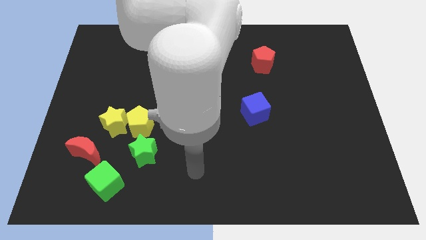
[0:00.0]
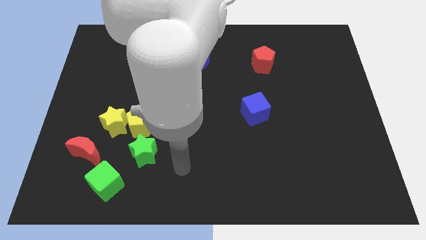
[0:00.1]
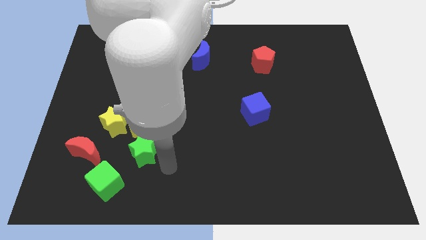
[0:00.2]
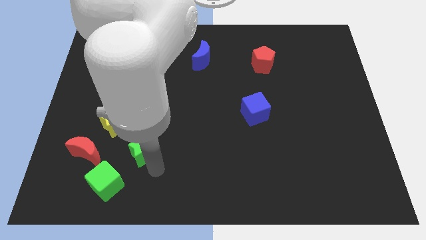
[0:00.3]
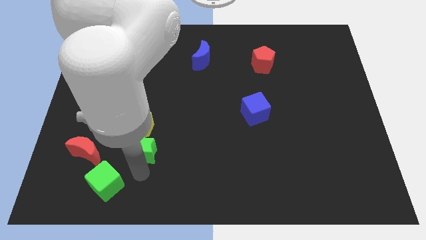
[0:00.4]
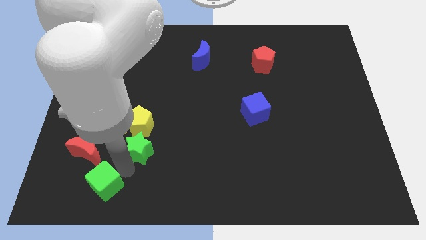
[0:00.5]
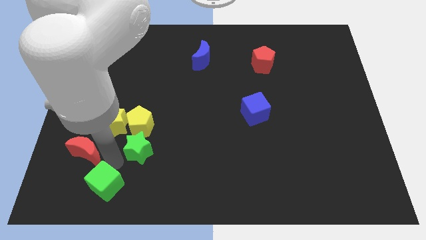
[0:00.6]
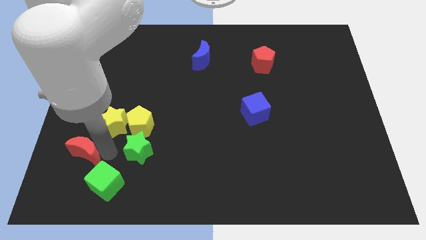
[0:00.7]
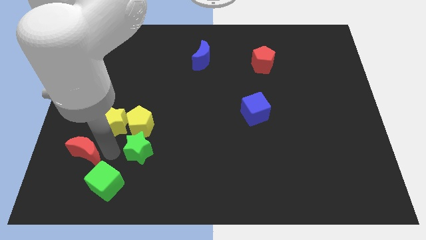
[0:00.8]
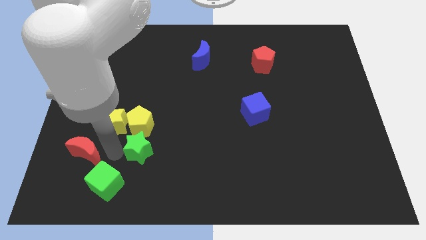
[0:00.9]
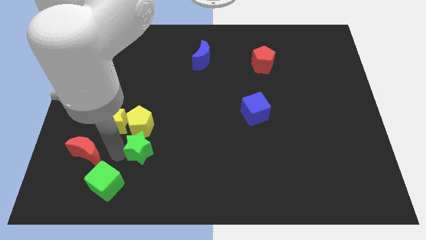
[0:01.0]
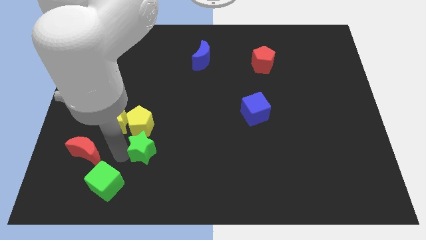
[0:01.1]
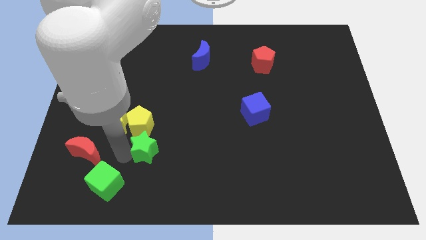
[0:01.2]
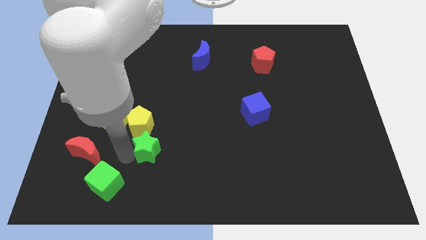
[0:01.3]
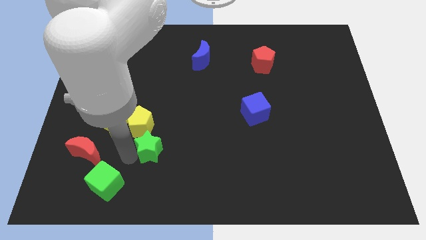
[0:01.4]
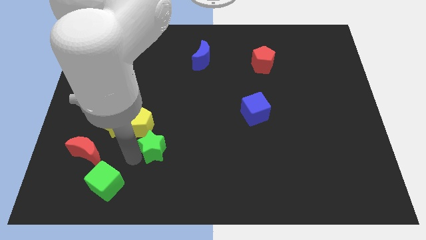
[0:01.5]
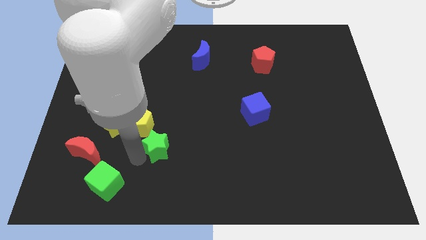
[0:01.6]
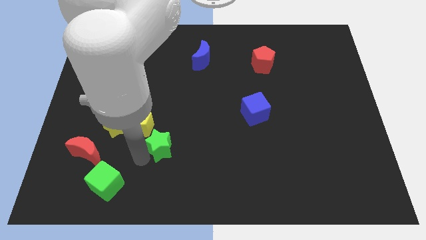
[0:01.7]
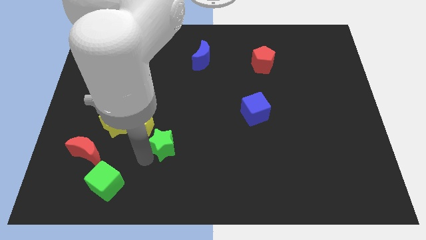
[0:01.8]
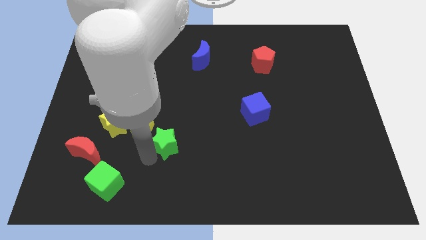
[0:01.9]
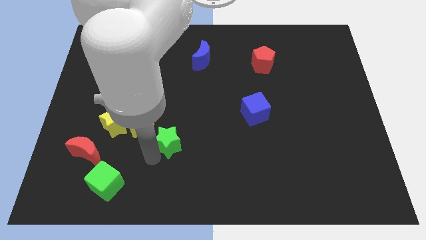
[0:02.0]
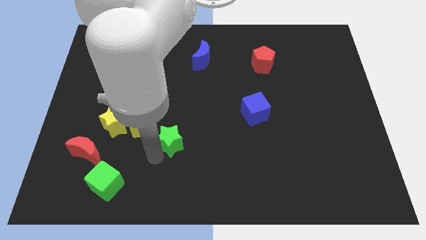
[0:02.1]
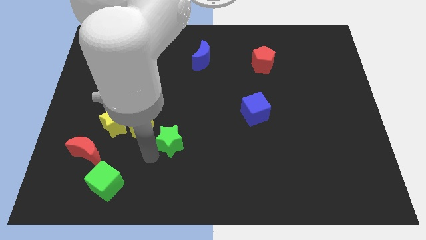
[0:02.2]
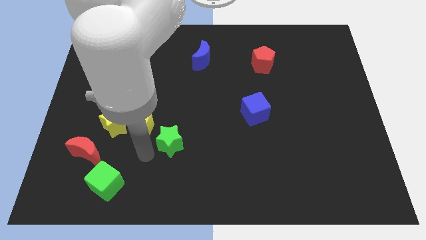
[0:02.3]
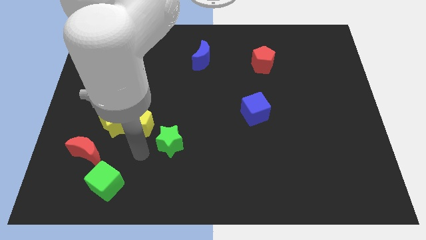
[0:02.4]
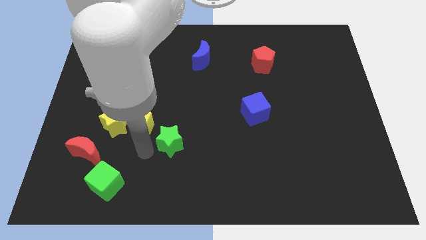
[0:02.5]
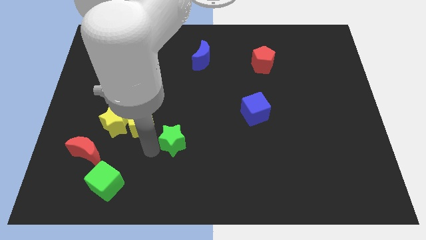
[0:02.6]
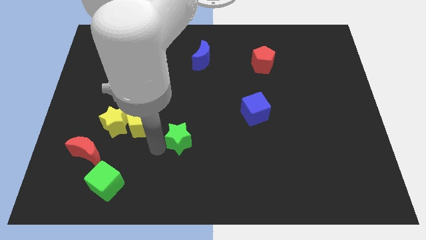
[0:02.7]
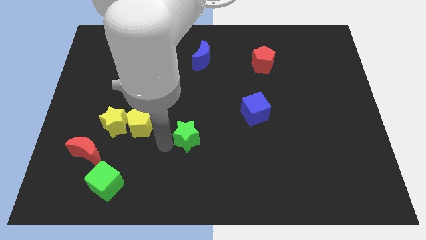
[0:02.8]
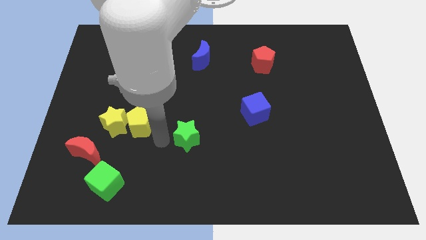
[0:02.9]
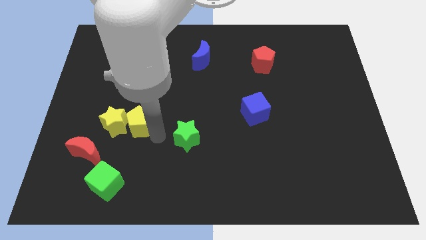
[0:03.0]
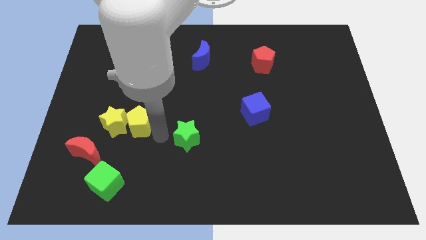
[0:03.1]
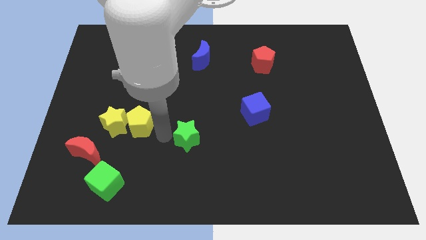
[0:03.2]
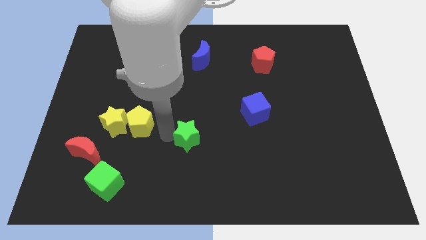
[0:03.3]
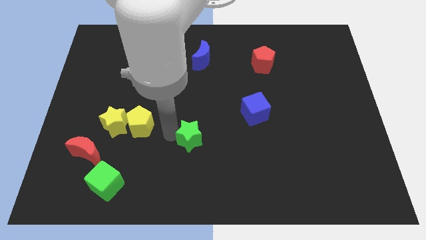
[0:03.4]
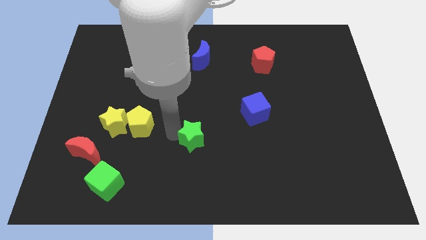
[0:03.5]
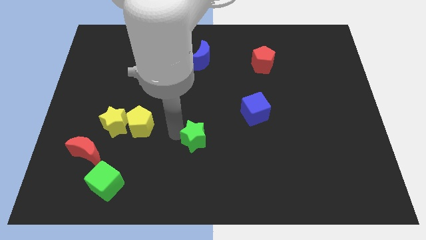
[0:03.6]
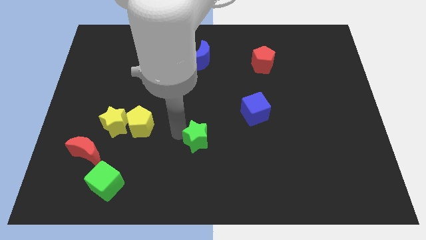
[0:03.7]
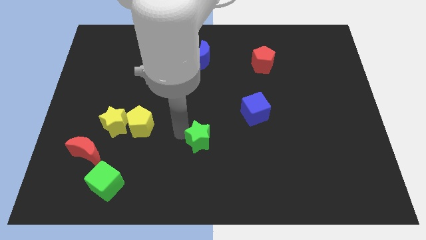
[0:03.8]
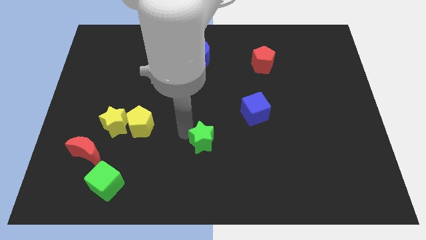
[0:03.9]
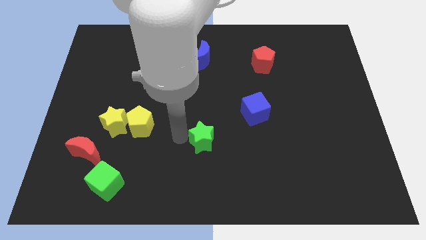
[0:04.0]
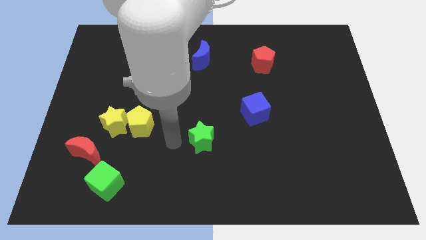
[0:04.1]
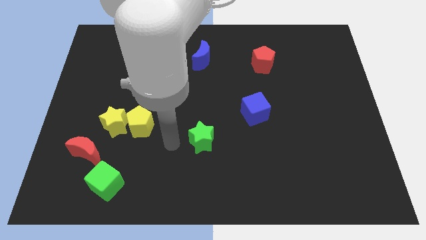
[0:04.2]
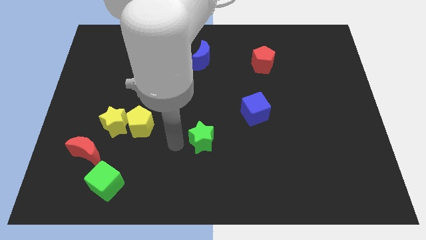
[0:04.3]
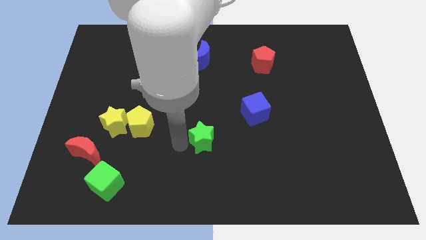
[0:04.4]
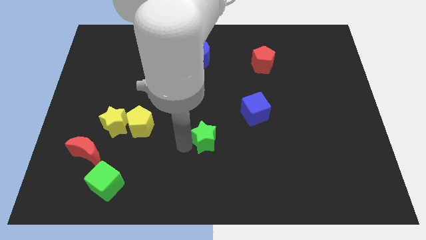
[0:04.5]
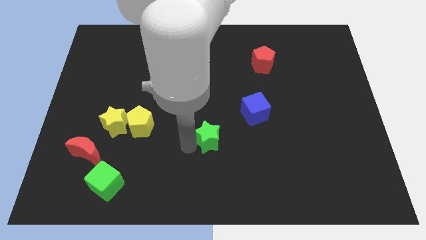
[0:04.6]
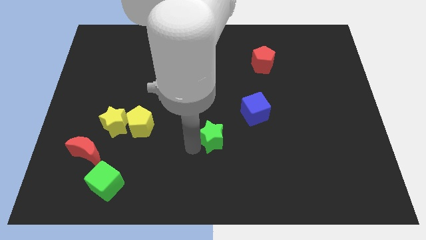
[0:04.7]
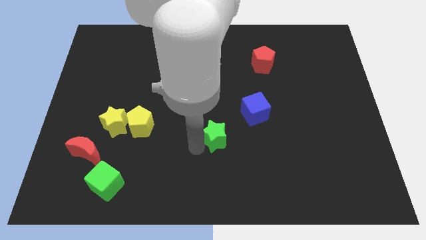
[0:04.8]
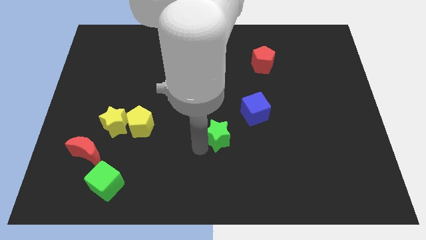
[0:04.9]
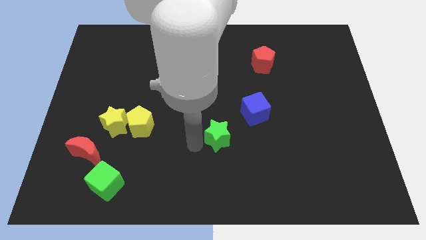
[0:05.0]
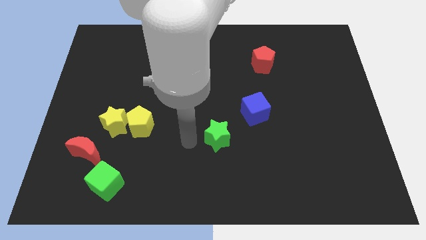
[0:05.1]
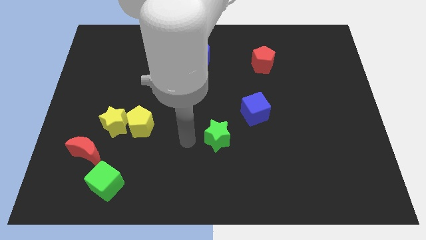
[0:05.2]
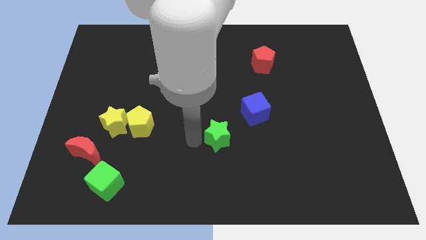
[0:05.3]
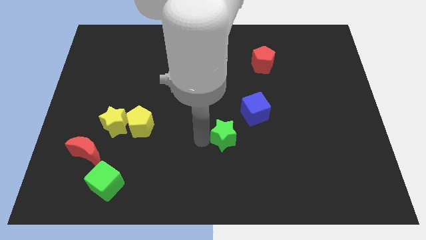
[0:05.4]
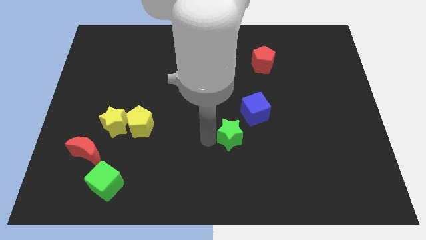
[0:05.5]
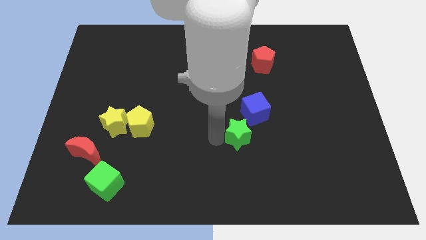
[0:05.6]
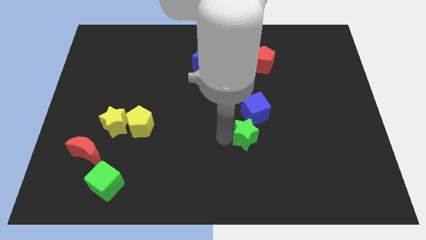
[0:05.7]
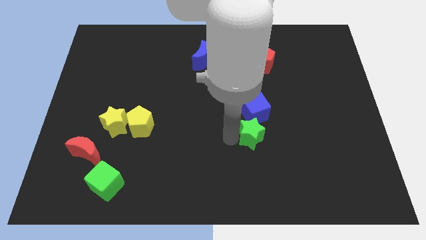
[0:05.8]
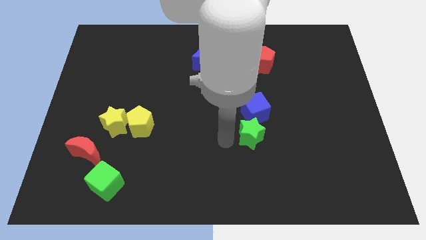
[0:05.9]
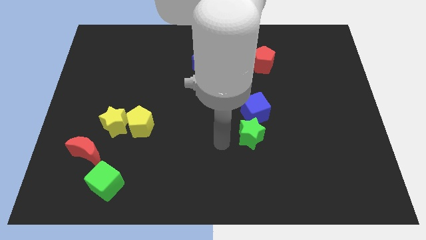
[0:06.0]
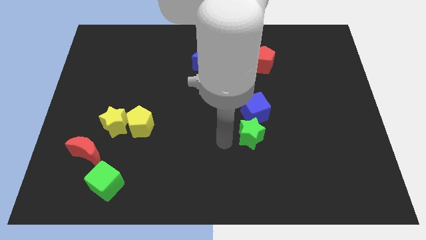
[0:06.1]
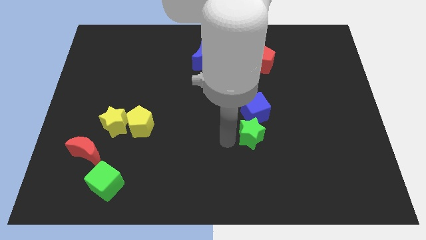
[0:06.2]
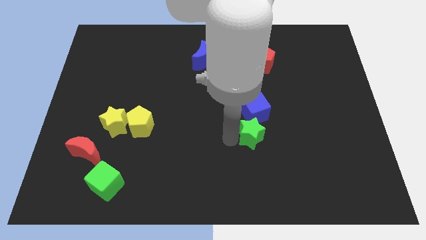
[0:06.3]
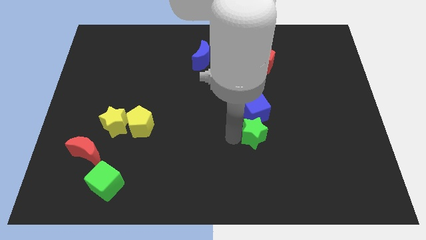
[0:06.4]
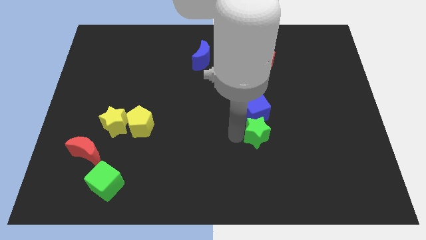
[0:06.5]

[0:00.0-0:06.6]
push the green star diagonally down and to the right of the blue cube
